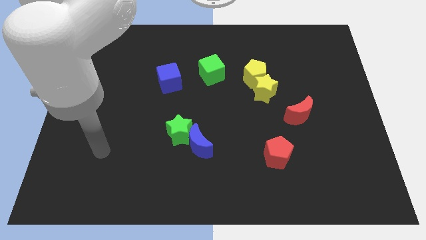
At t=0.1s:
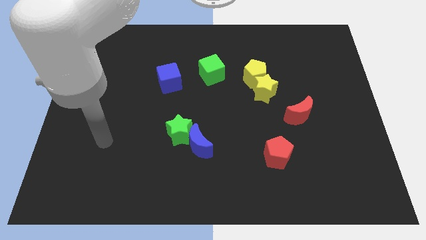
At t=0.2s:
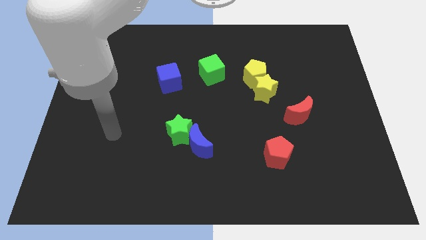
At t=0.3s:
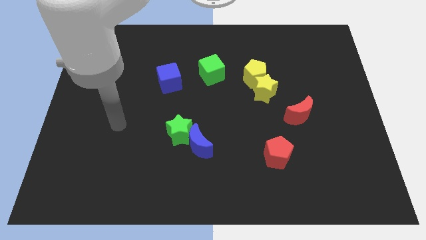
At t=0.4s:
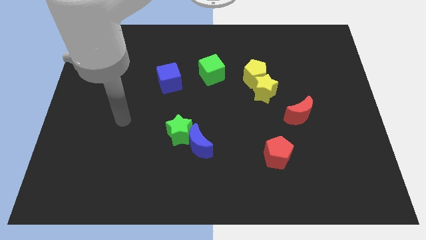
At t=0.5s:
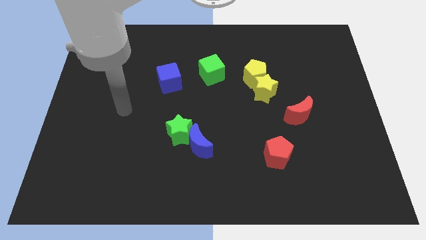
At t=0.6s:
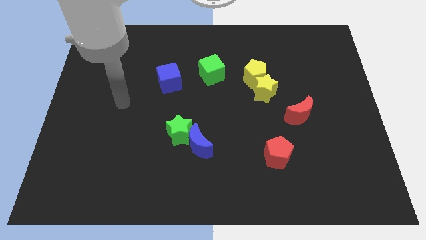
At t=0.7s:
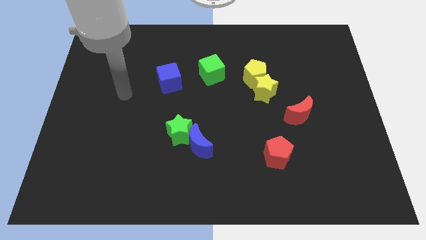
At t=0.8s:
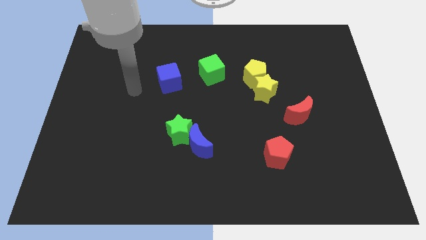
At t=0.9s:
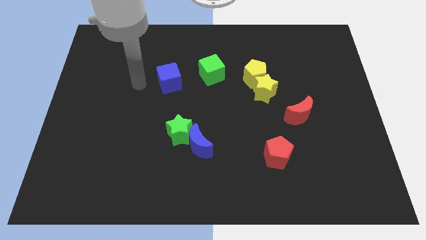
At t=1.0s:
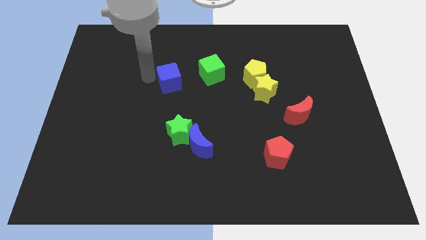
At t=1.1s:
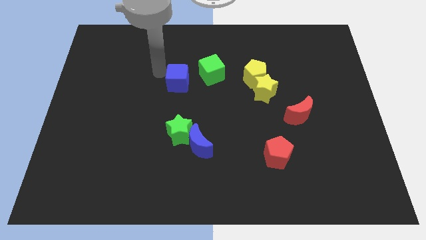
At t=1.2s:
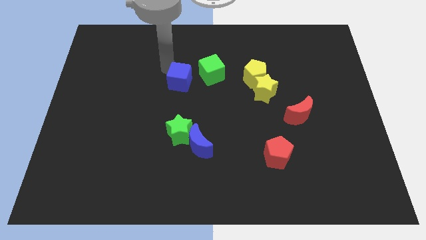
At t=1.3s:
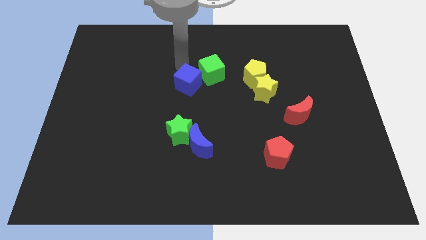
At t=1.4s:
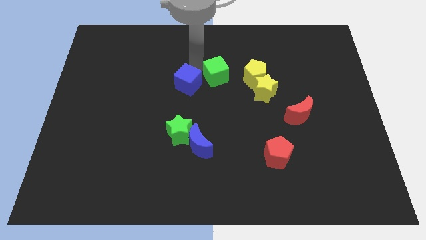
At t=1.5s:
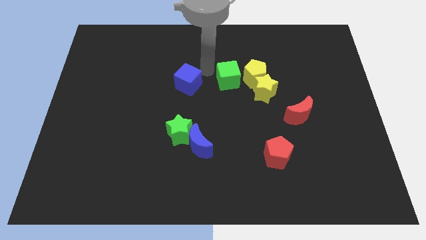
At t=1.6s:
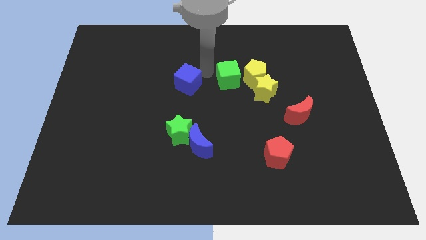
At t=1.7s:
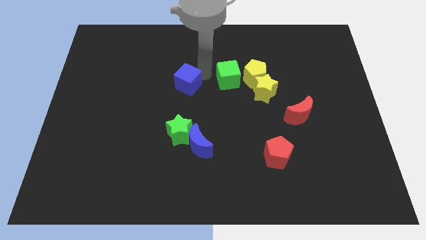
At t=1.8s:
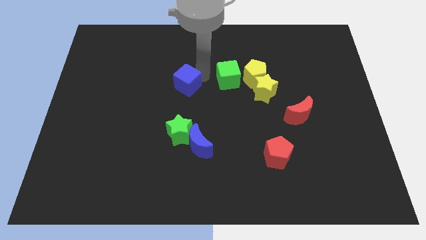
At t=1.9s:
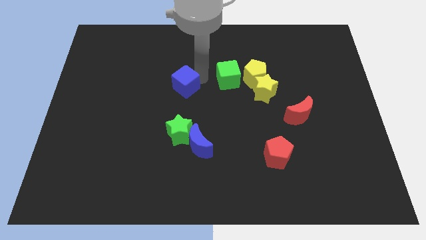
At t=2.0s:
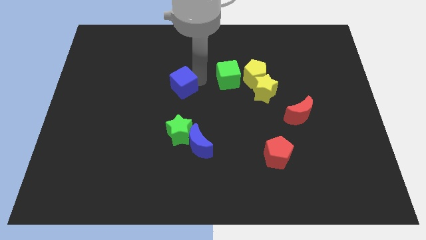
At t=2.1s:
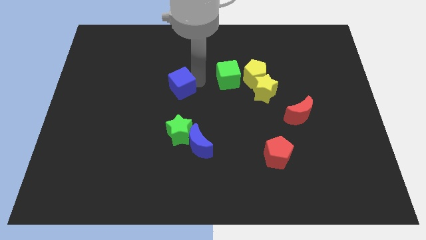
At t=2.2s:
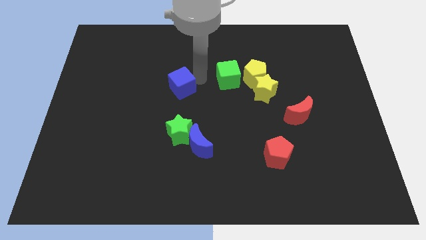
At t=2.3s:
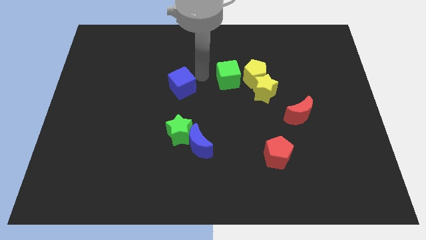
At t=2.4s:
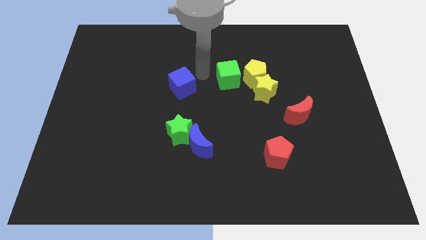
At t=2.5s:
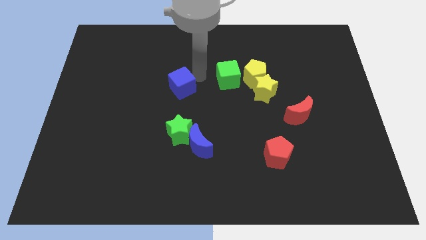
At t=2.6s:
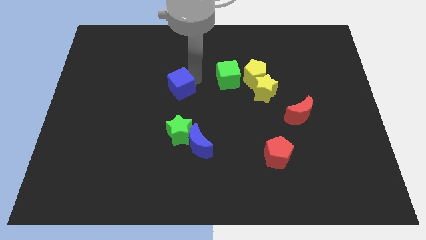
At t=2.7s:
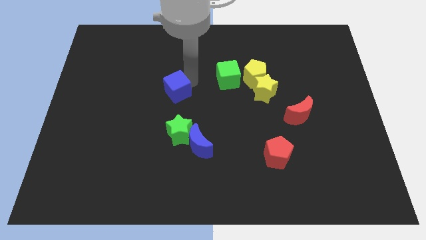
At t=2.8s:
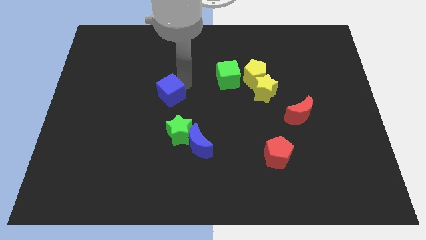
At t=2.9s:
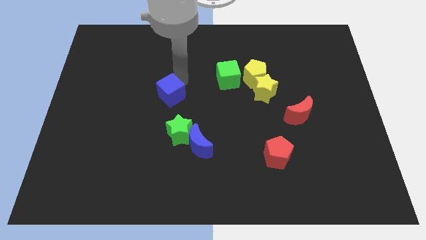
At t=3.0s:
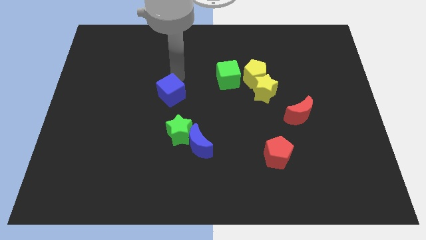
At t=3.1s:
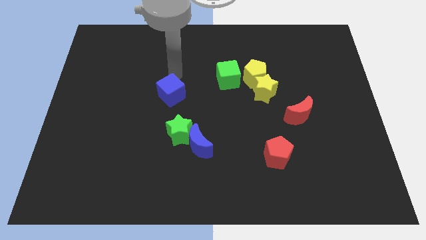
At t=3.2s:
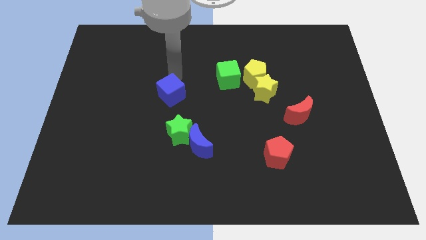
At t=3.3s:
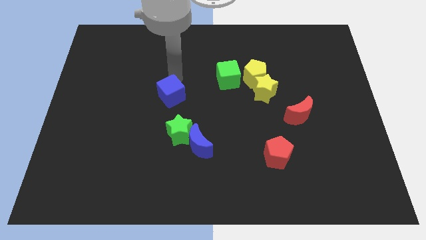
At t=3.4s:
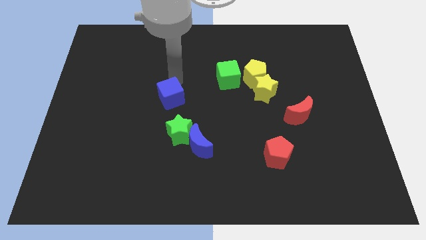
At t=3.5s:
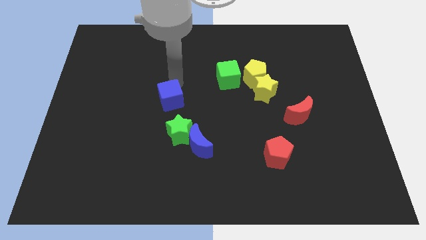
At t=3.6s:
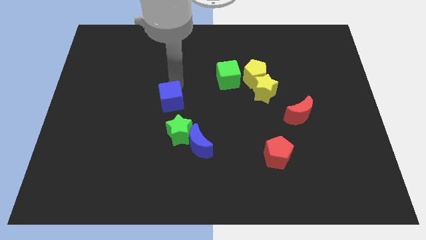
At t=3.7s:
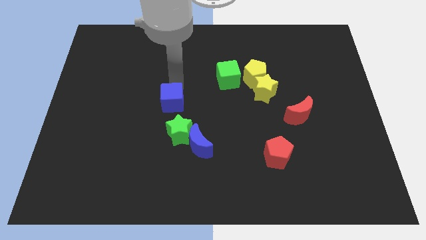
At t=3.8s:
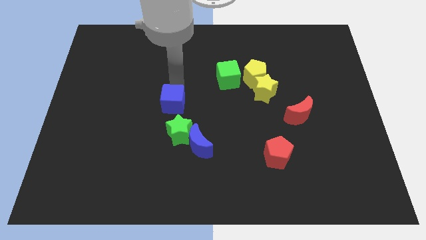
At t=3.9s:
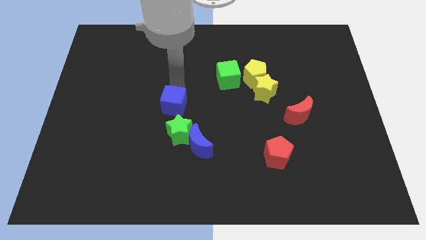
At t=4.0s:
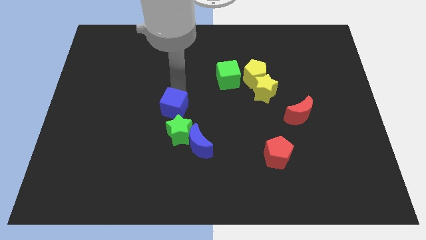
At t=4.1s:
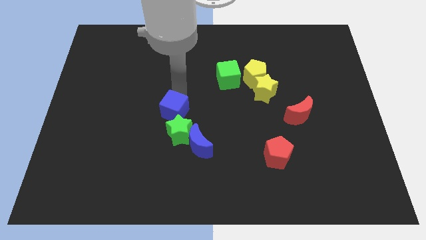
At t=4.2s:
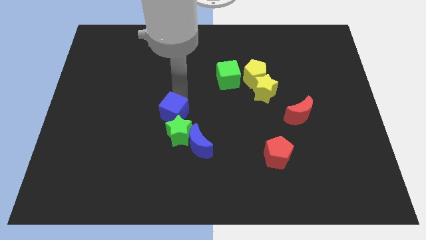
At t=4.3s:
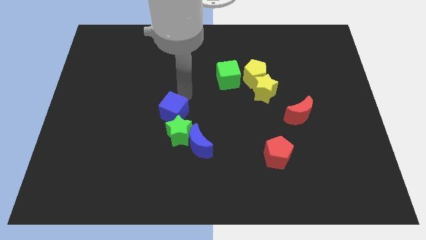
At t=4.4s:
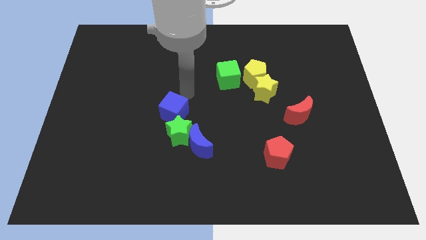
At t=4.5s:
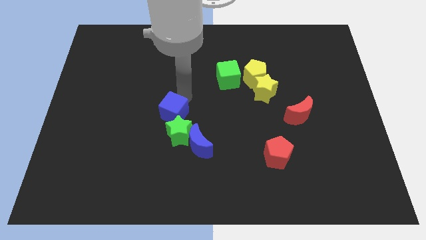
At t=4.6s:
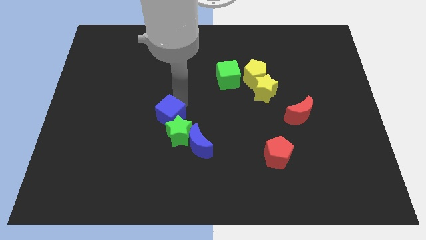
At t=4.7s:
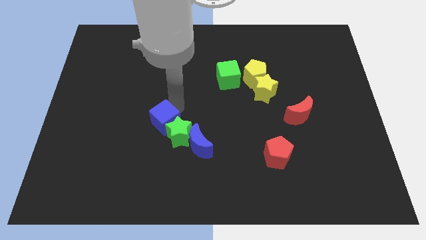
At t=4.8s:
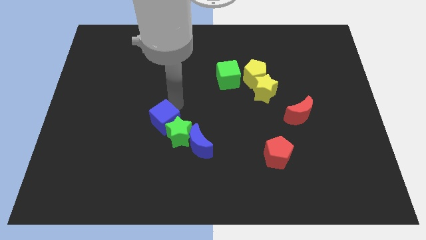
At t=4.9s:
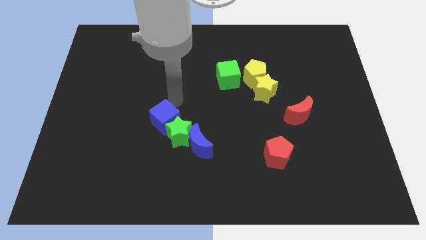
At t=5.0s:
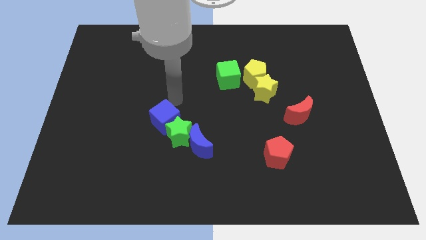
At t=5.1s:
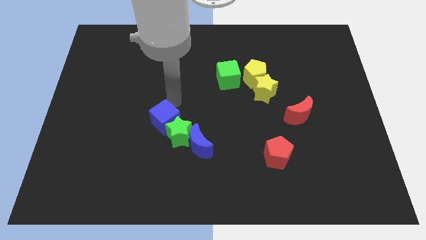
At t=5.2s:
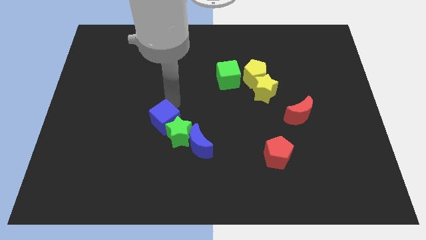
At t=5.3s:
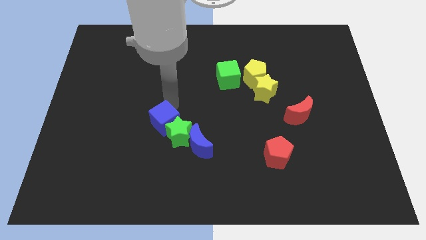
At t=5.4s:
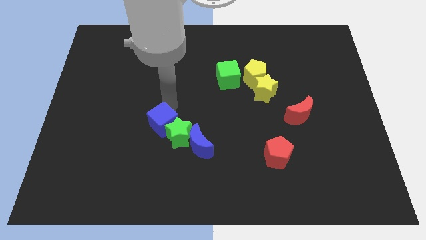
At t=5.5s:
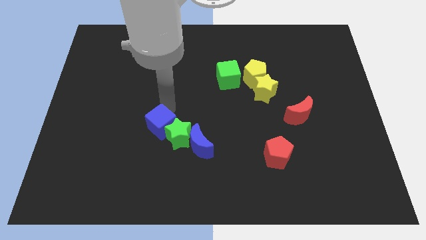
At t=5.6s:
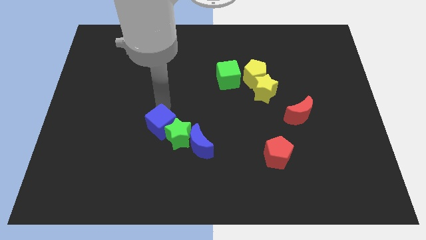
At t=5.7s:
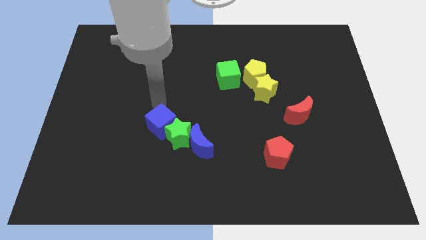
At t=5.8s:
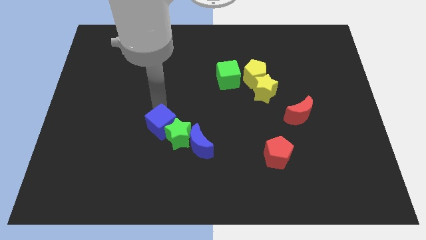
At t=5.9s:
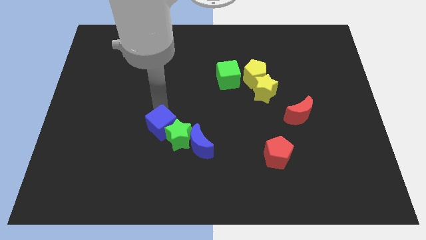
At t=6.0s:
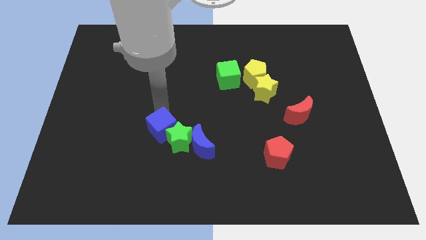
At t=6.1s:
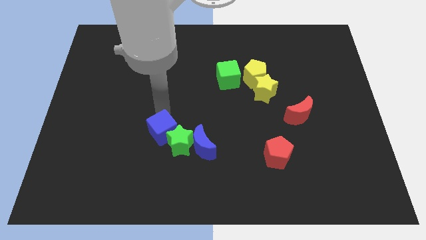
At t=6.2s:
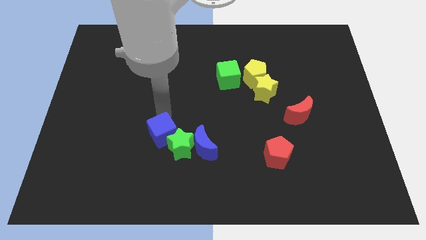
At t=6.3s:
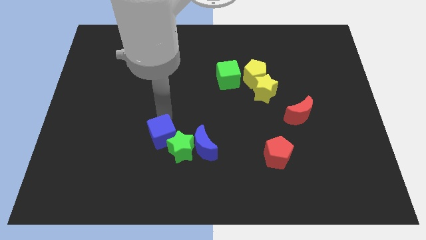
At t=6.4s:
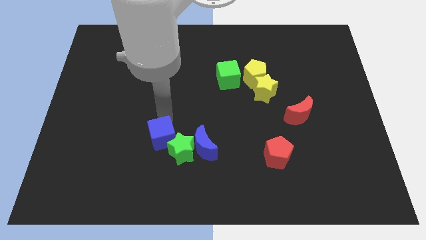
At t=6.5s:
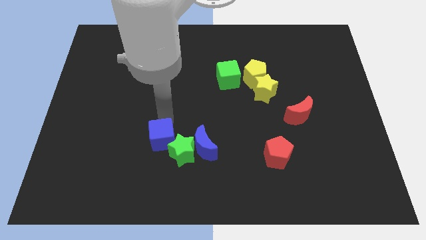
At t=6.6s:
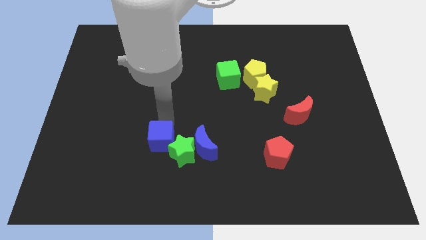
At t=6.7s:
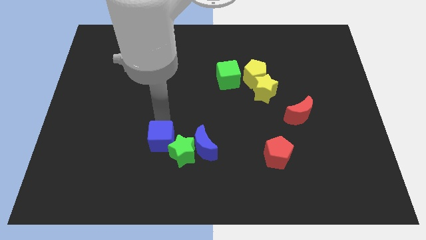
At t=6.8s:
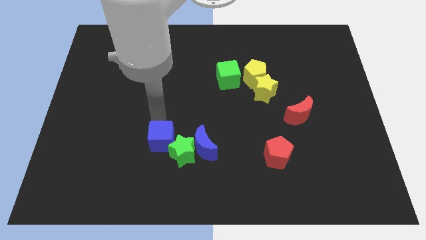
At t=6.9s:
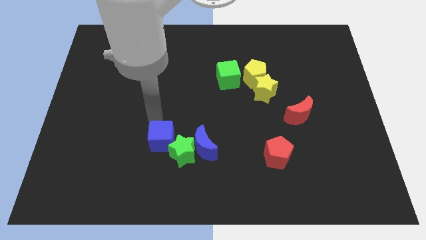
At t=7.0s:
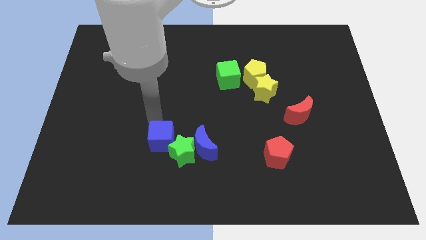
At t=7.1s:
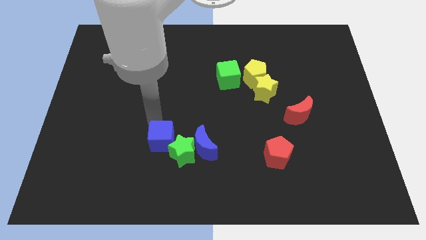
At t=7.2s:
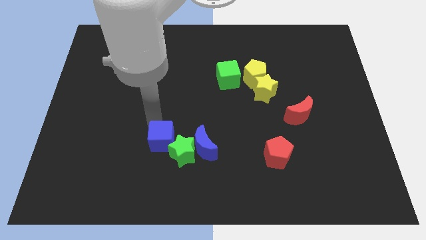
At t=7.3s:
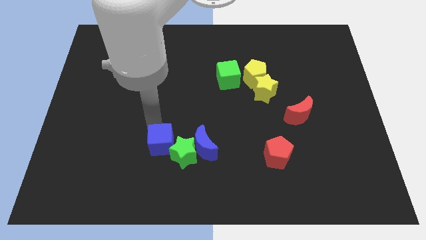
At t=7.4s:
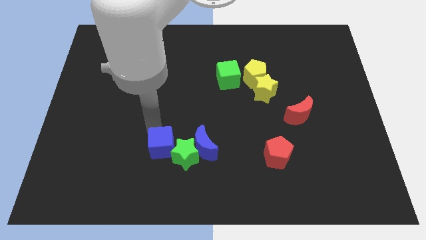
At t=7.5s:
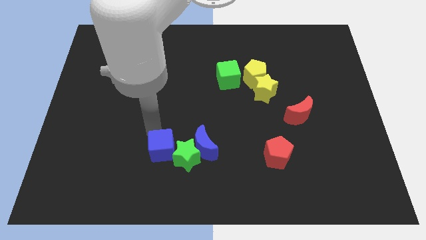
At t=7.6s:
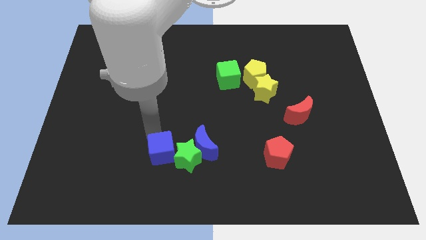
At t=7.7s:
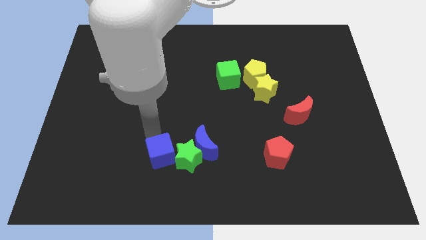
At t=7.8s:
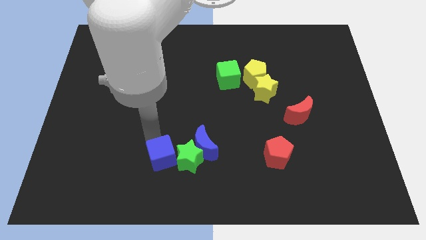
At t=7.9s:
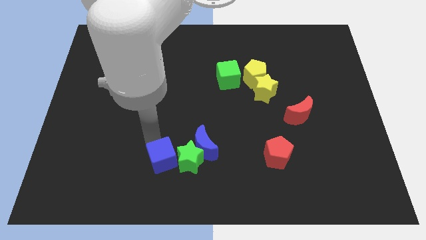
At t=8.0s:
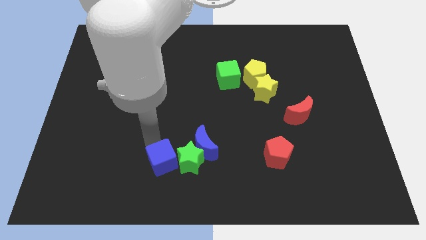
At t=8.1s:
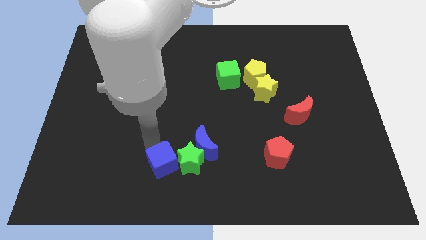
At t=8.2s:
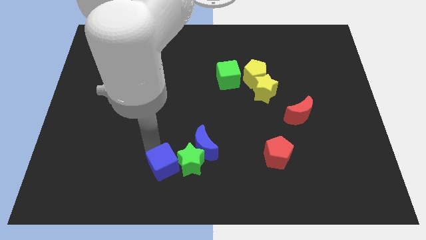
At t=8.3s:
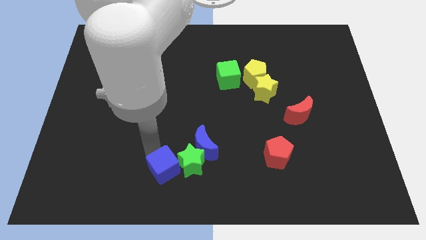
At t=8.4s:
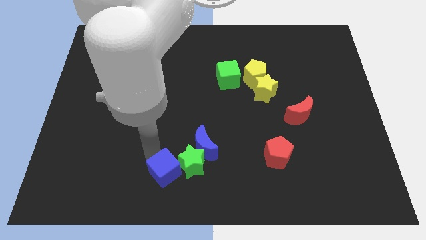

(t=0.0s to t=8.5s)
put the blue cube to the bottom
